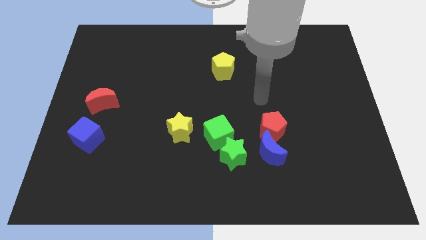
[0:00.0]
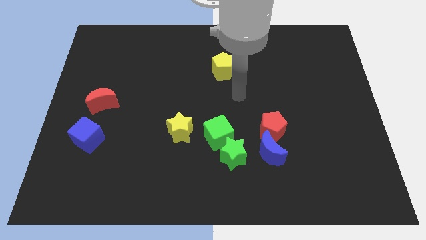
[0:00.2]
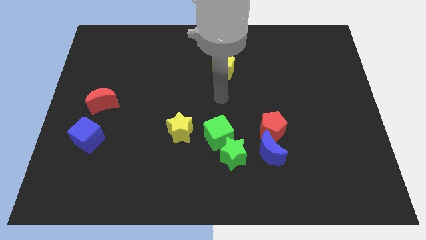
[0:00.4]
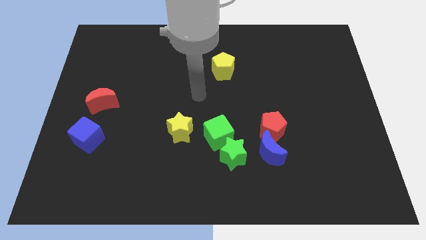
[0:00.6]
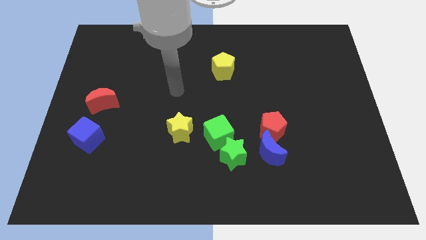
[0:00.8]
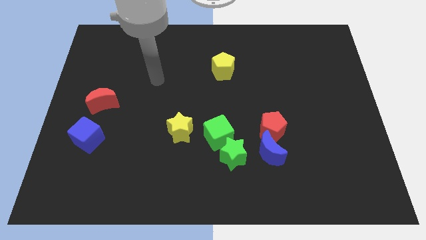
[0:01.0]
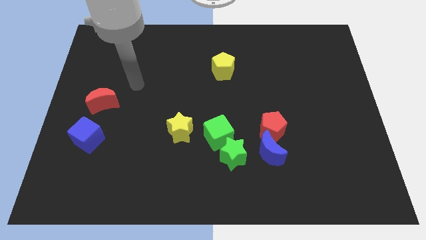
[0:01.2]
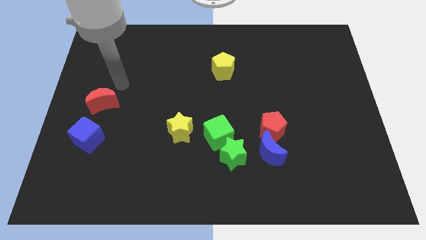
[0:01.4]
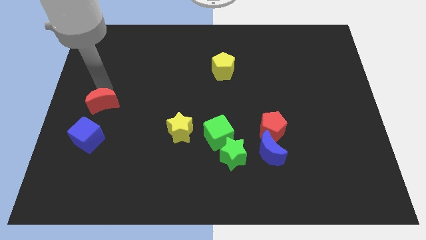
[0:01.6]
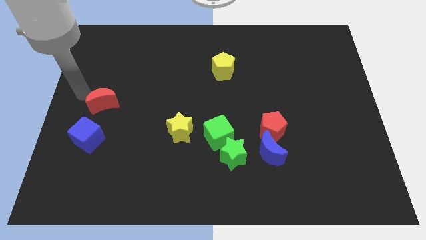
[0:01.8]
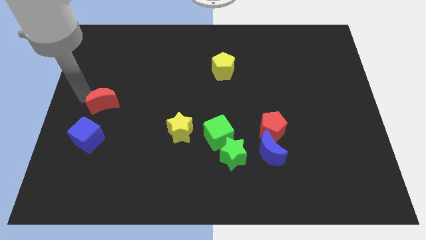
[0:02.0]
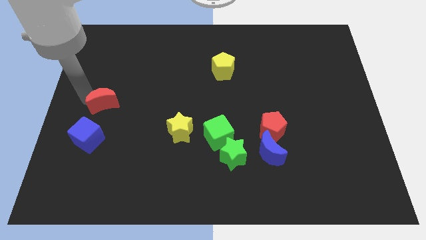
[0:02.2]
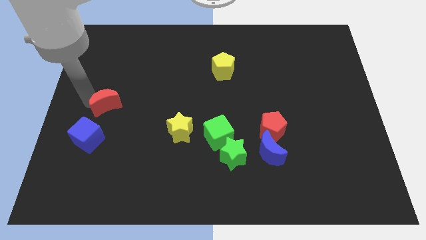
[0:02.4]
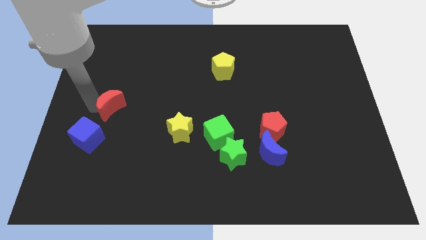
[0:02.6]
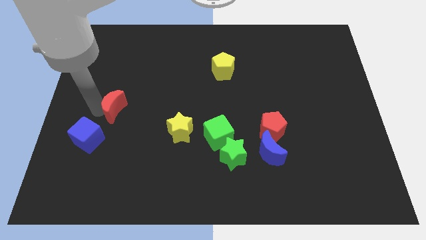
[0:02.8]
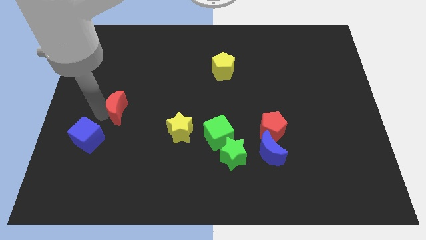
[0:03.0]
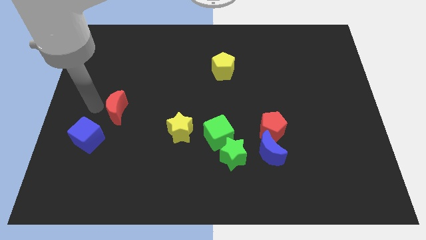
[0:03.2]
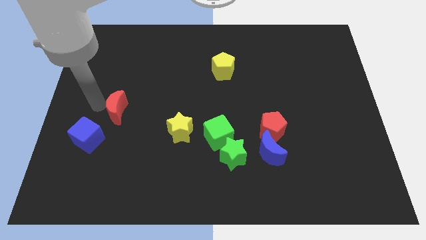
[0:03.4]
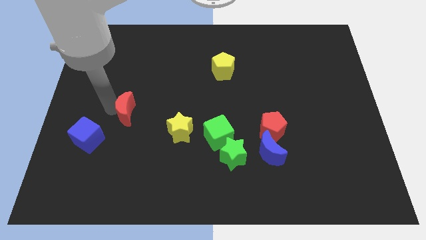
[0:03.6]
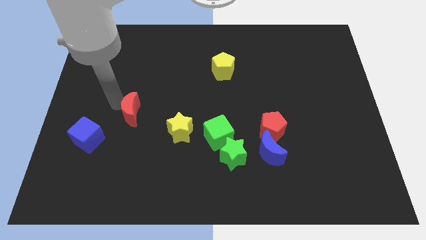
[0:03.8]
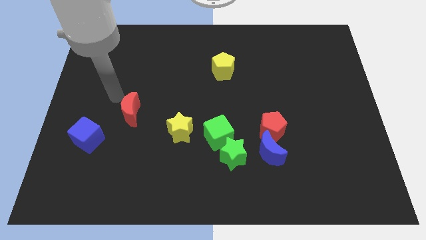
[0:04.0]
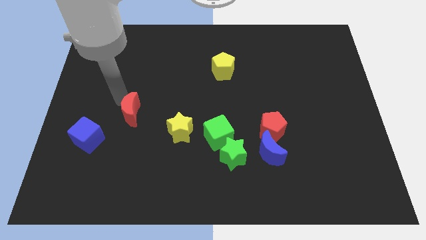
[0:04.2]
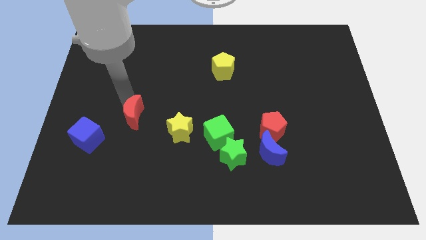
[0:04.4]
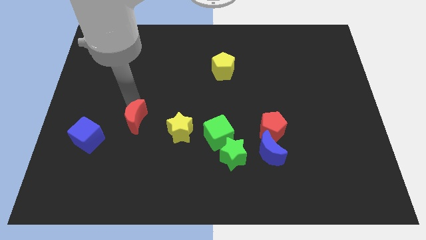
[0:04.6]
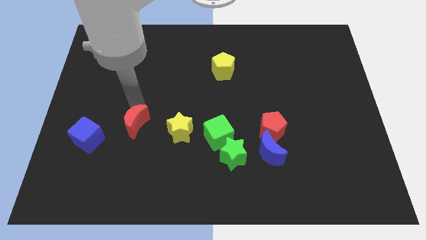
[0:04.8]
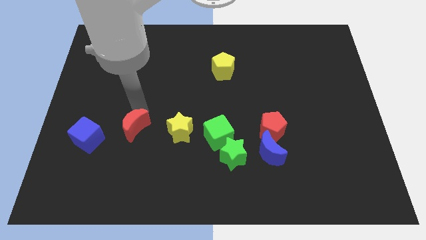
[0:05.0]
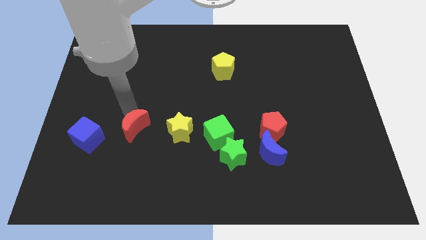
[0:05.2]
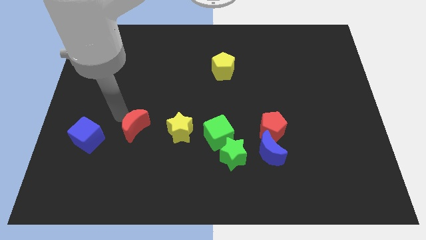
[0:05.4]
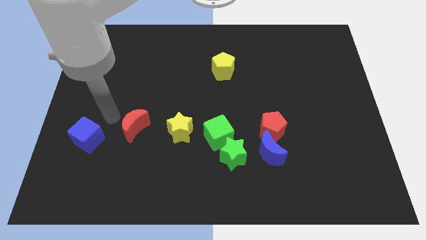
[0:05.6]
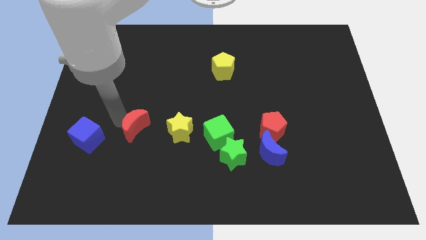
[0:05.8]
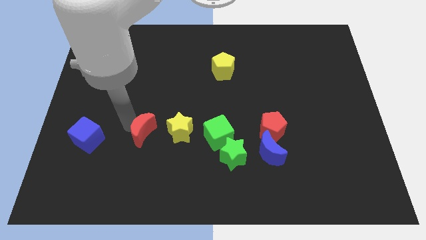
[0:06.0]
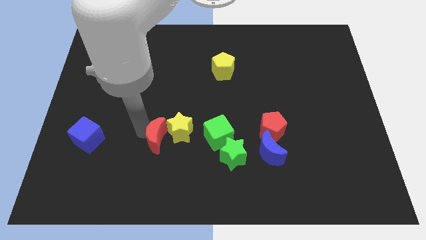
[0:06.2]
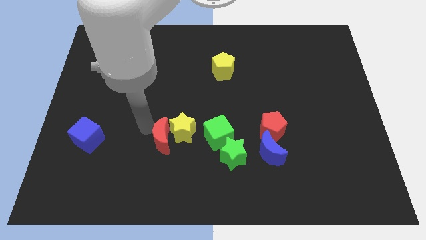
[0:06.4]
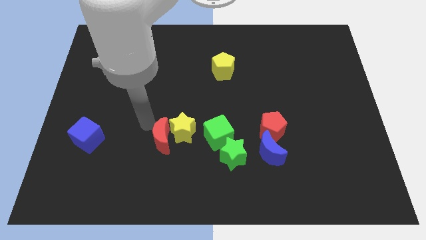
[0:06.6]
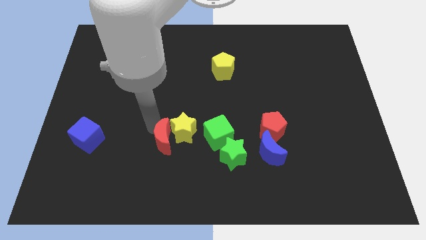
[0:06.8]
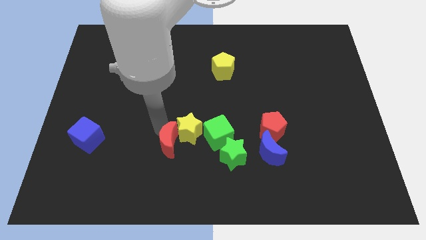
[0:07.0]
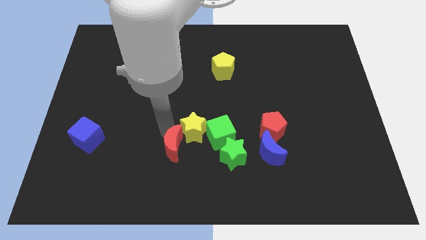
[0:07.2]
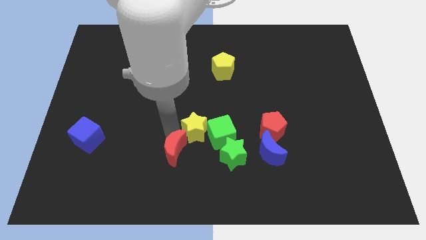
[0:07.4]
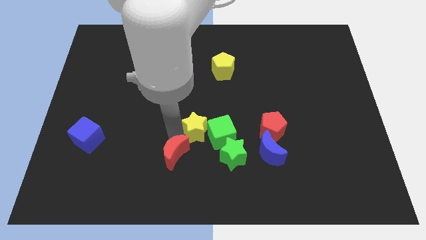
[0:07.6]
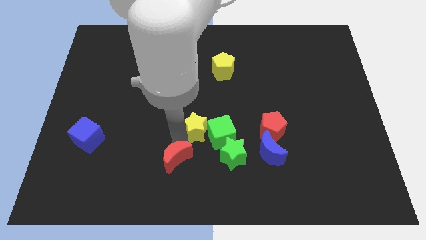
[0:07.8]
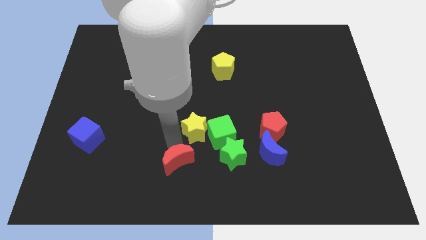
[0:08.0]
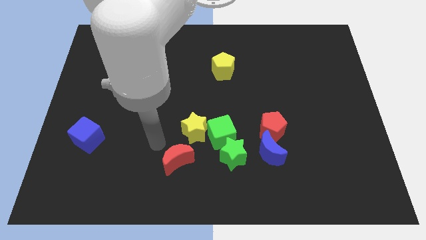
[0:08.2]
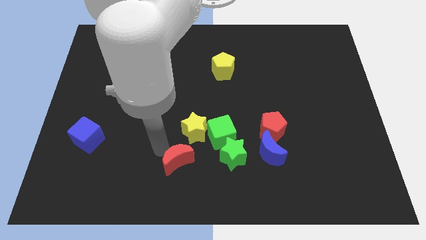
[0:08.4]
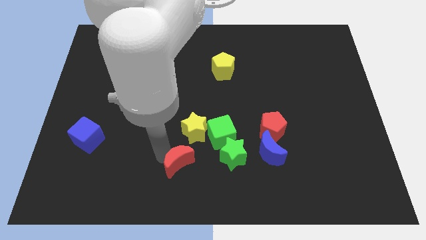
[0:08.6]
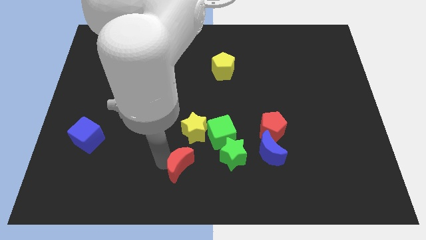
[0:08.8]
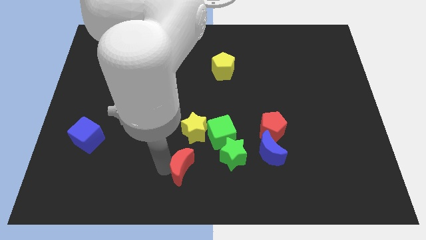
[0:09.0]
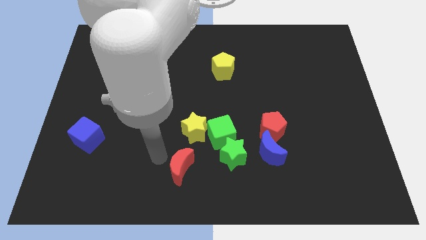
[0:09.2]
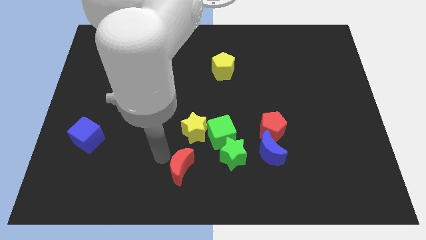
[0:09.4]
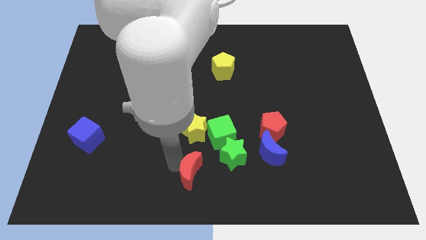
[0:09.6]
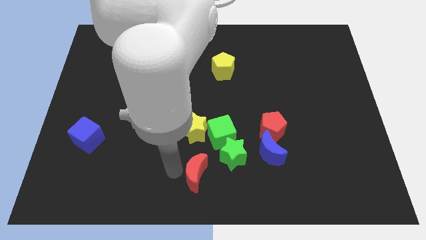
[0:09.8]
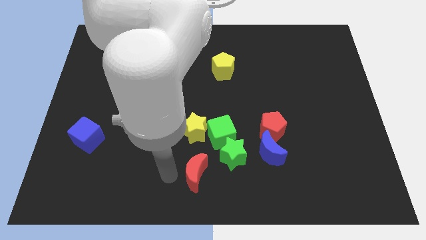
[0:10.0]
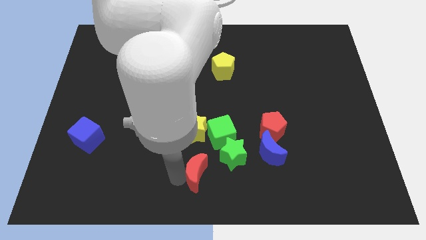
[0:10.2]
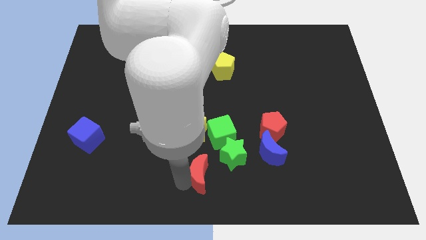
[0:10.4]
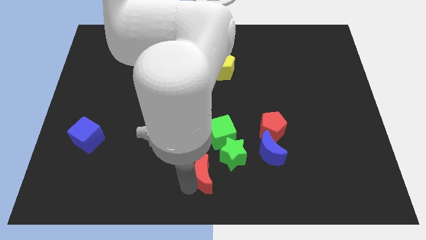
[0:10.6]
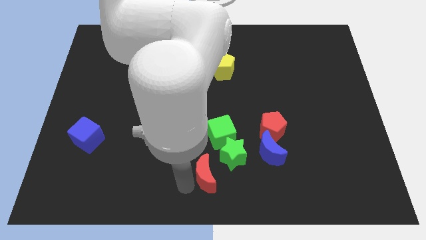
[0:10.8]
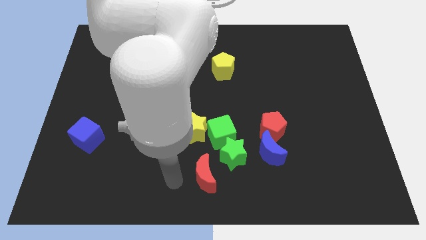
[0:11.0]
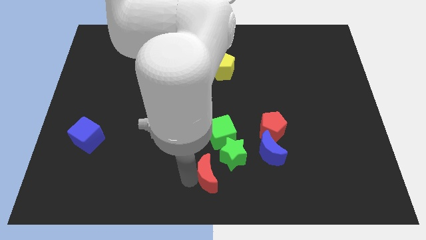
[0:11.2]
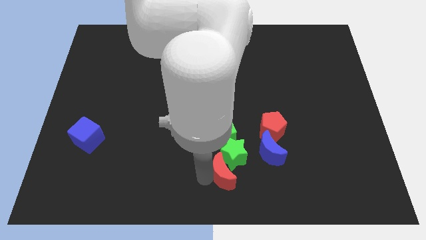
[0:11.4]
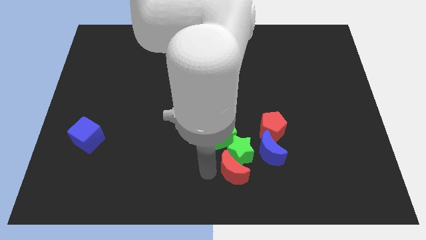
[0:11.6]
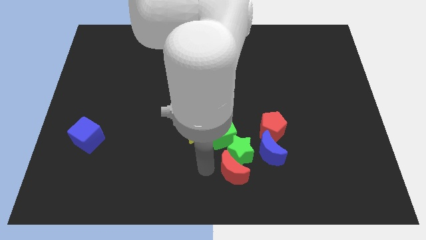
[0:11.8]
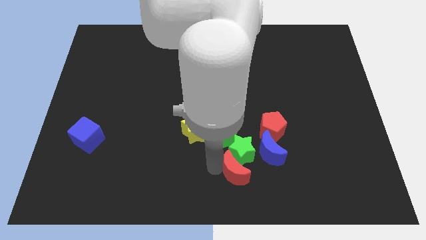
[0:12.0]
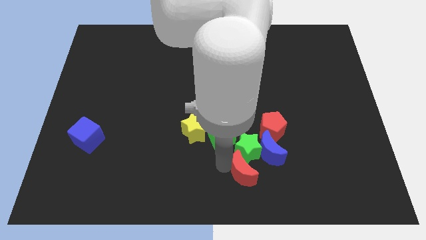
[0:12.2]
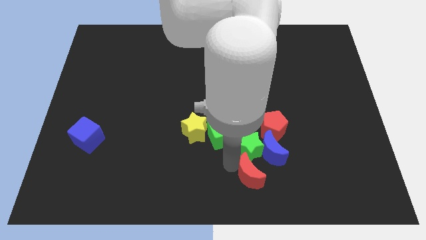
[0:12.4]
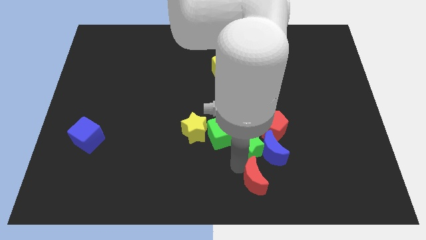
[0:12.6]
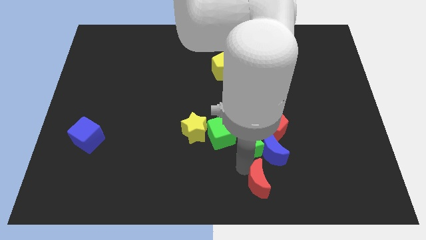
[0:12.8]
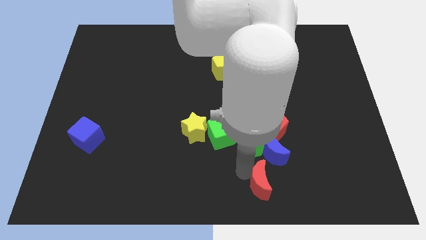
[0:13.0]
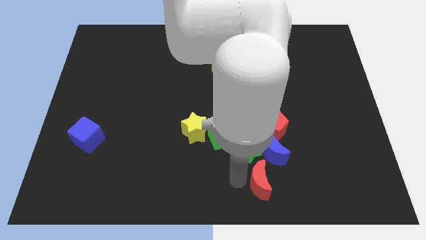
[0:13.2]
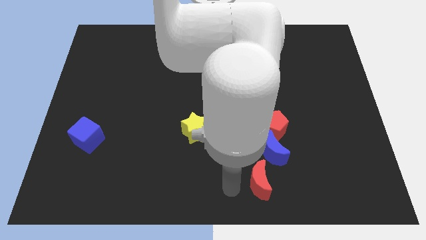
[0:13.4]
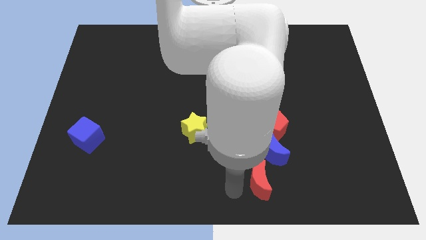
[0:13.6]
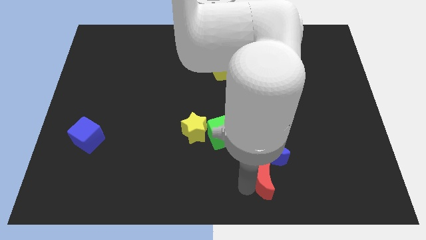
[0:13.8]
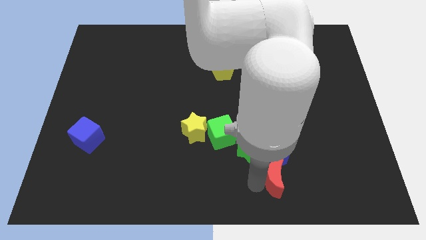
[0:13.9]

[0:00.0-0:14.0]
slide the red moon diagonally down and to the right of the blue moon

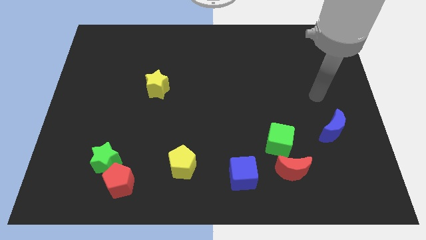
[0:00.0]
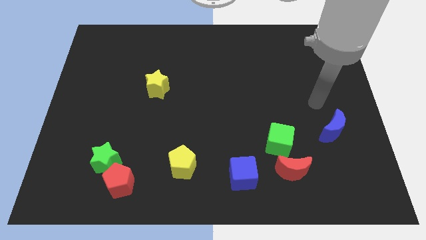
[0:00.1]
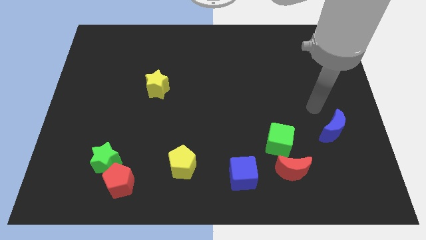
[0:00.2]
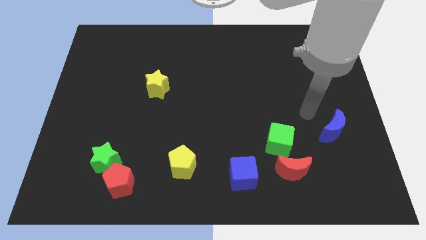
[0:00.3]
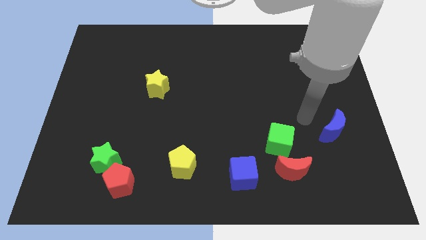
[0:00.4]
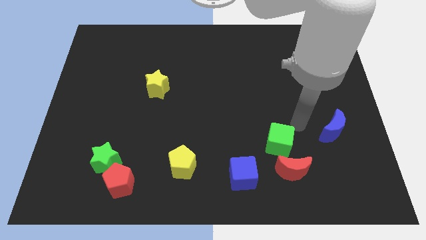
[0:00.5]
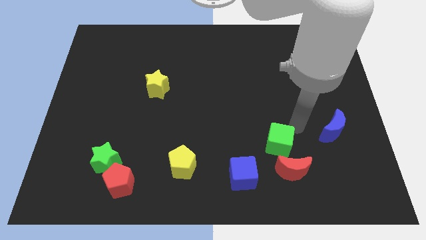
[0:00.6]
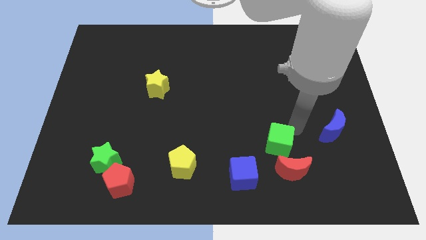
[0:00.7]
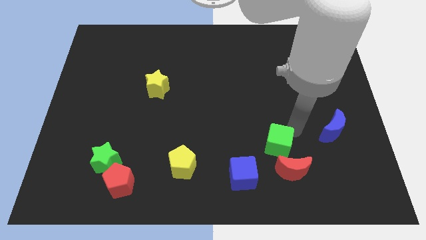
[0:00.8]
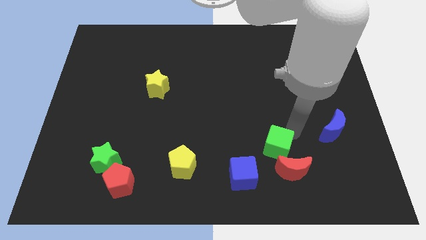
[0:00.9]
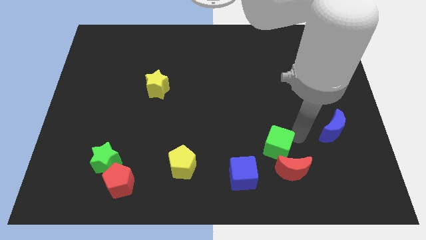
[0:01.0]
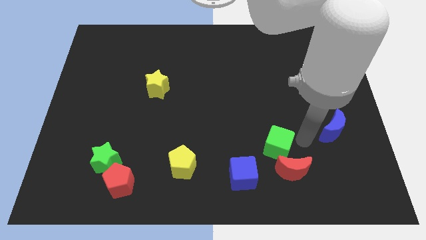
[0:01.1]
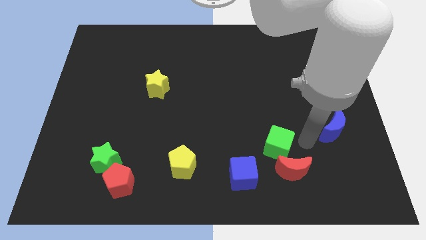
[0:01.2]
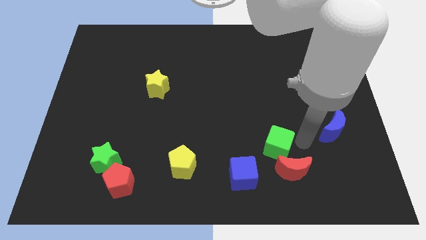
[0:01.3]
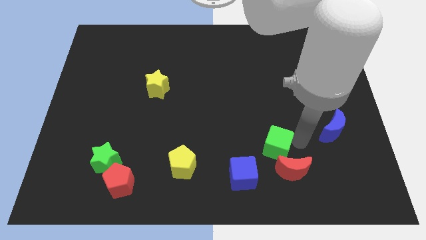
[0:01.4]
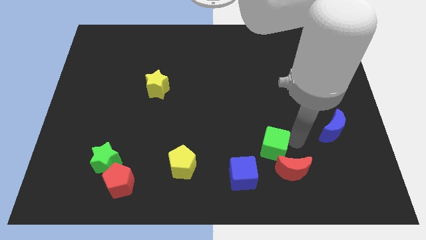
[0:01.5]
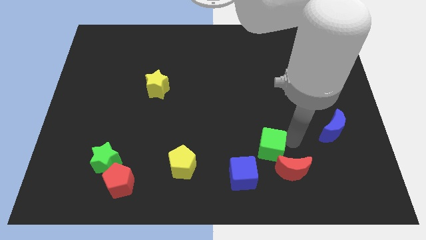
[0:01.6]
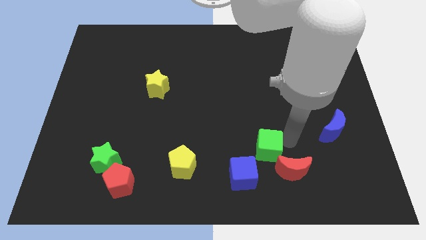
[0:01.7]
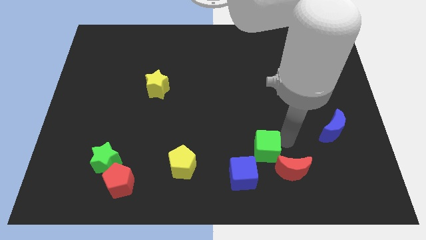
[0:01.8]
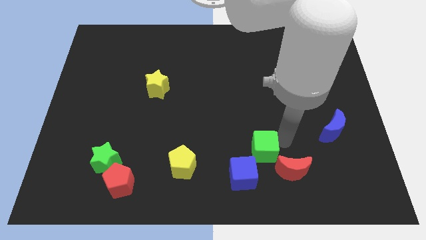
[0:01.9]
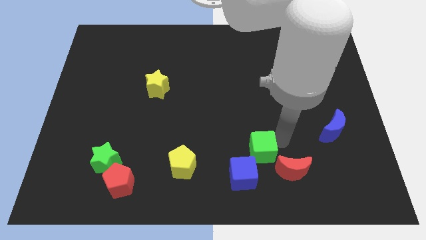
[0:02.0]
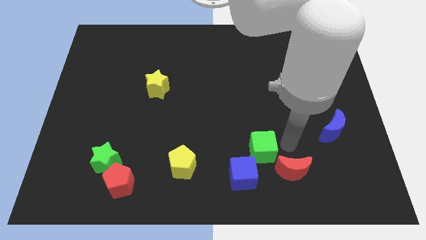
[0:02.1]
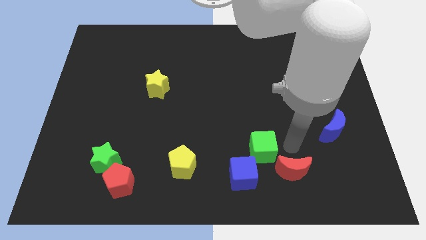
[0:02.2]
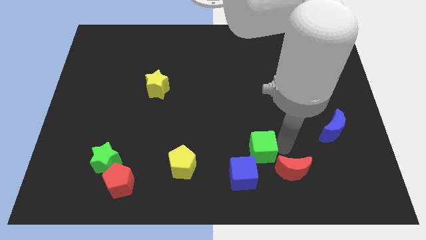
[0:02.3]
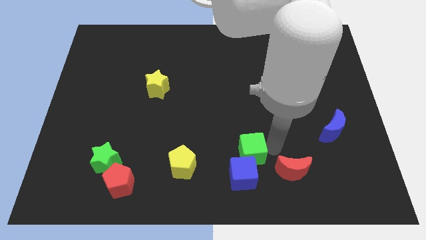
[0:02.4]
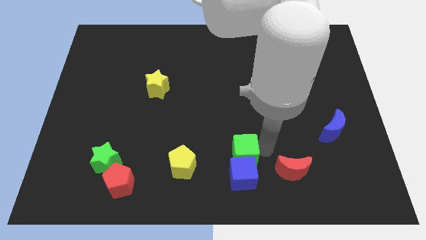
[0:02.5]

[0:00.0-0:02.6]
slide the green cube diagonally up and to the left of the blue cube
